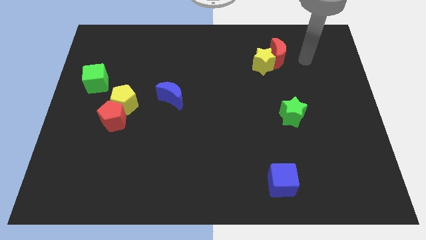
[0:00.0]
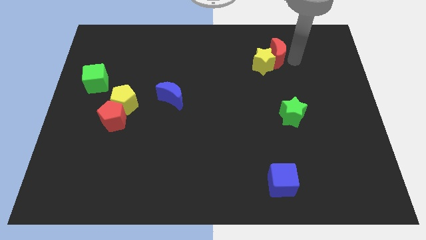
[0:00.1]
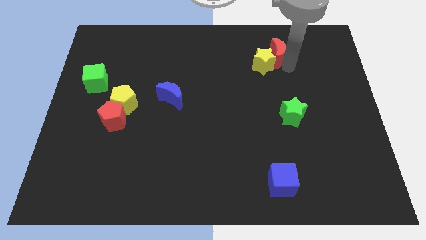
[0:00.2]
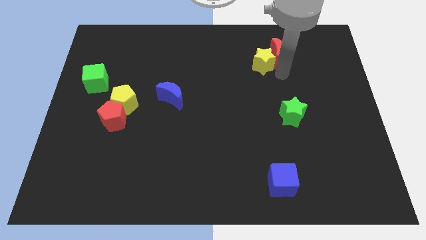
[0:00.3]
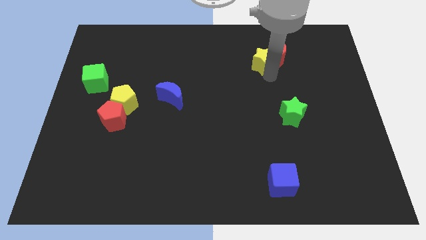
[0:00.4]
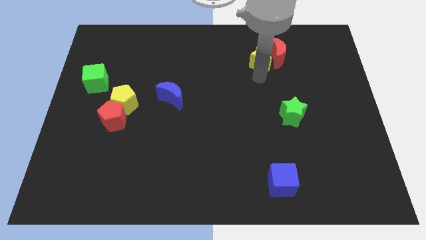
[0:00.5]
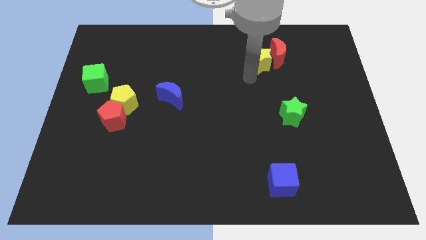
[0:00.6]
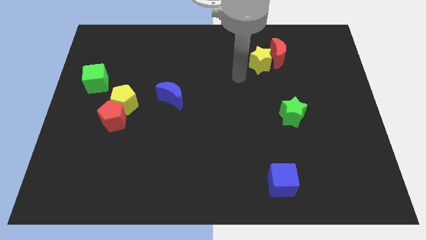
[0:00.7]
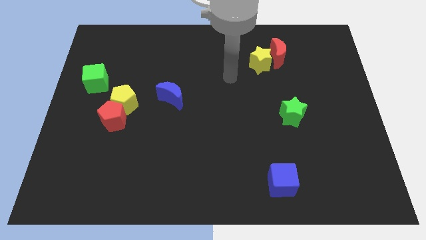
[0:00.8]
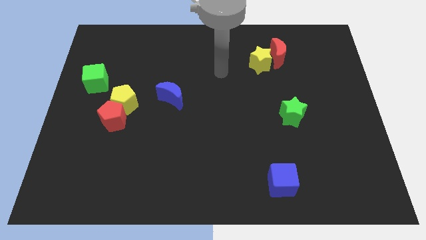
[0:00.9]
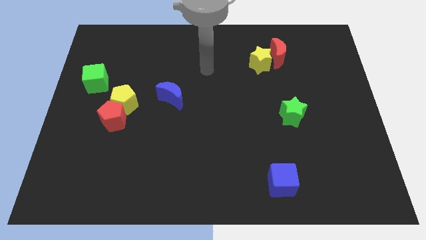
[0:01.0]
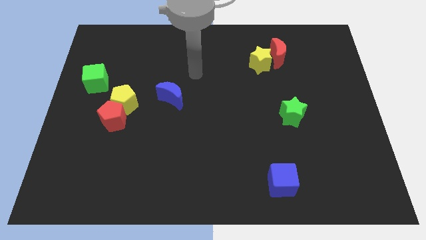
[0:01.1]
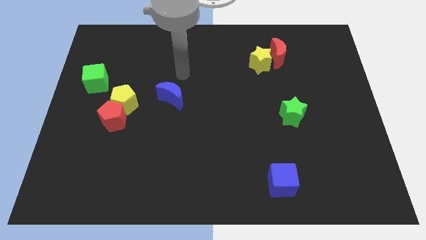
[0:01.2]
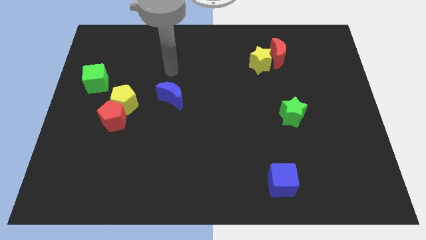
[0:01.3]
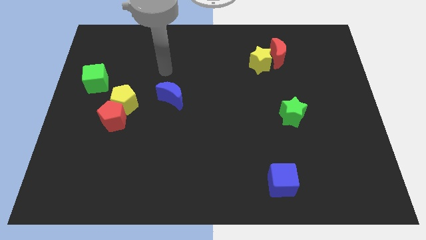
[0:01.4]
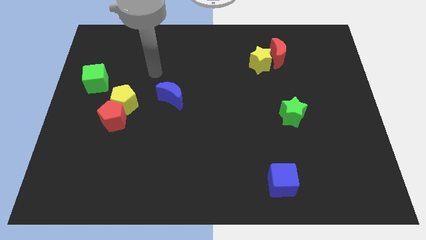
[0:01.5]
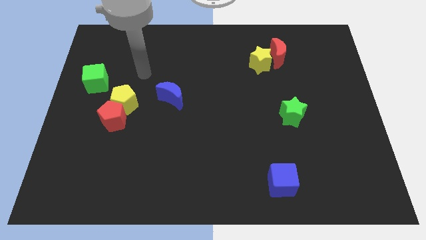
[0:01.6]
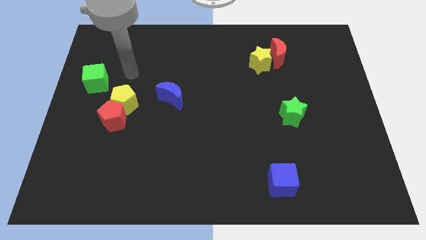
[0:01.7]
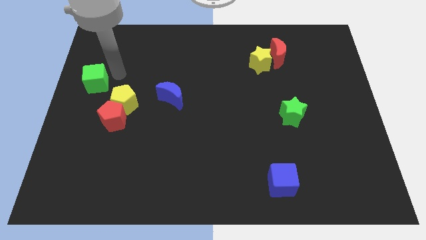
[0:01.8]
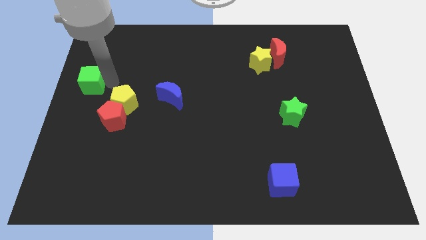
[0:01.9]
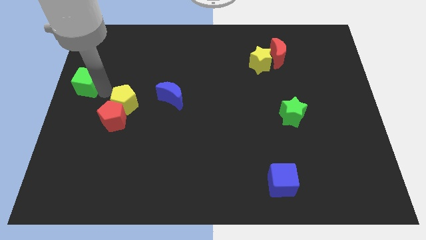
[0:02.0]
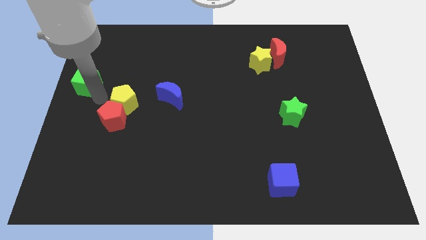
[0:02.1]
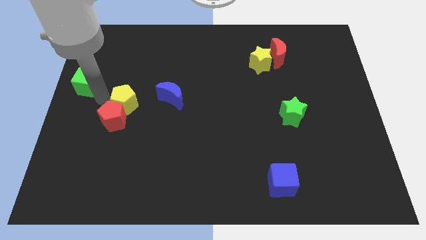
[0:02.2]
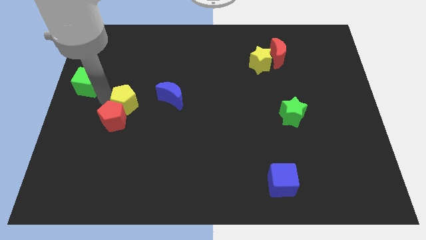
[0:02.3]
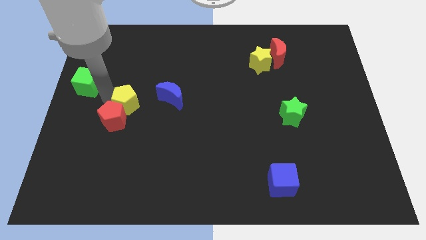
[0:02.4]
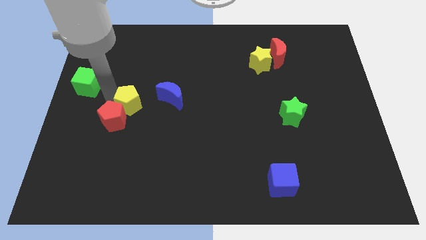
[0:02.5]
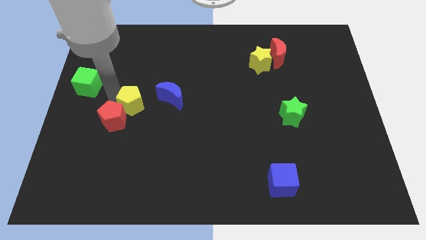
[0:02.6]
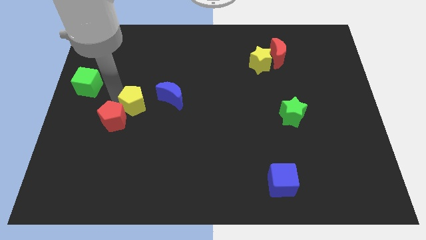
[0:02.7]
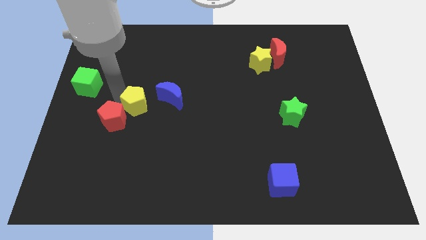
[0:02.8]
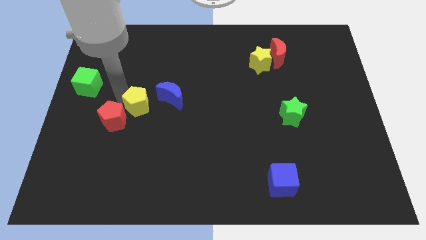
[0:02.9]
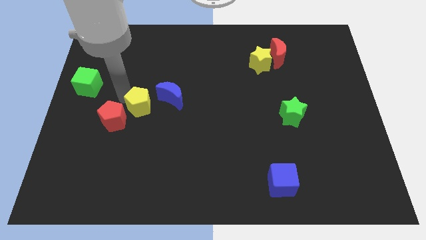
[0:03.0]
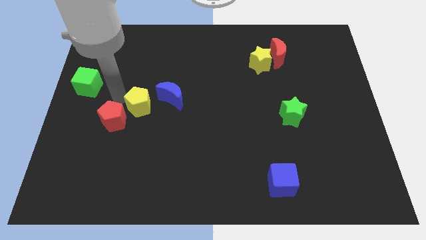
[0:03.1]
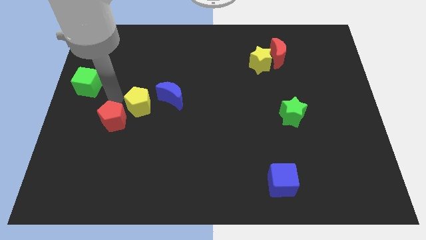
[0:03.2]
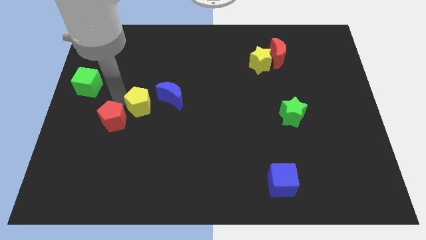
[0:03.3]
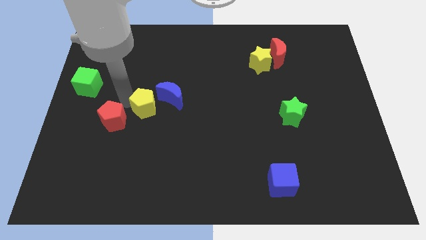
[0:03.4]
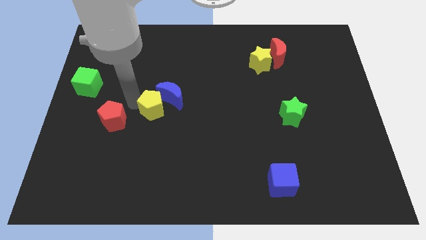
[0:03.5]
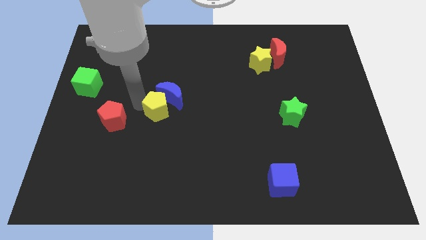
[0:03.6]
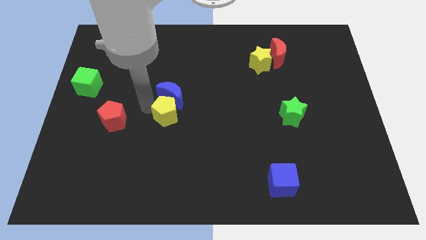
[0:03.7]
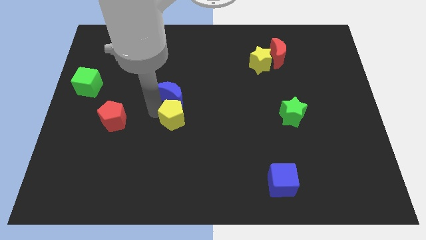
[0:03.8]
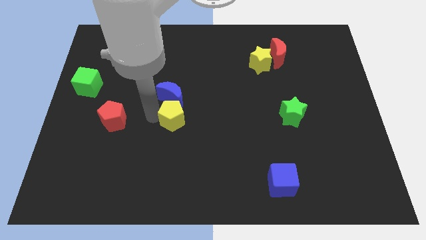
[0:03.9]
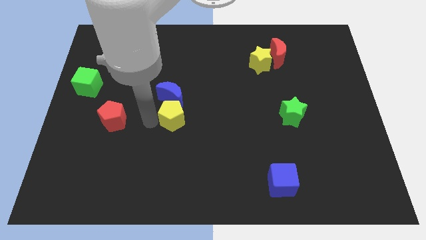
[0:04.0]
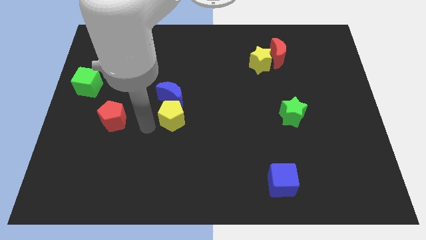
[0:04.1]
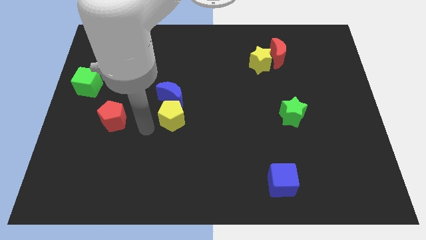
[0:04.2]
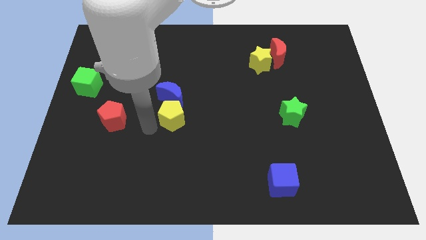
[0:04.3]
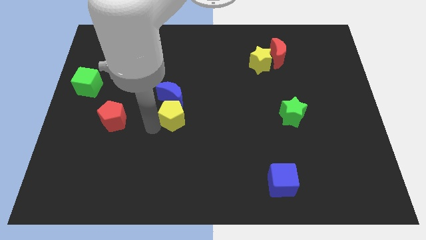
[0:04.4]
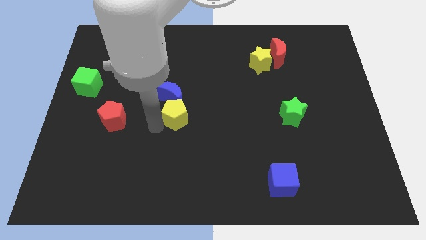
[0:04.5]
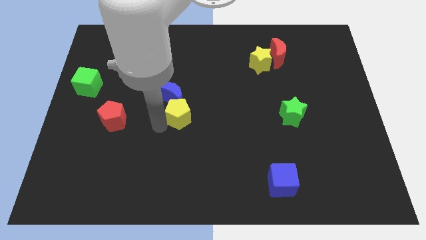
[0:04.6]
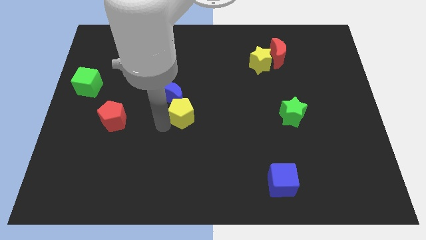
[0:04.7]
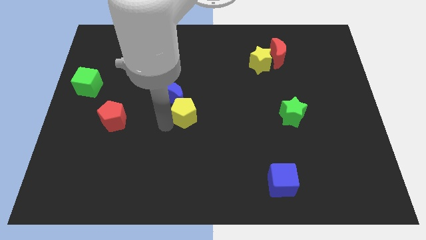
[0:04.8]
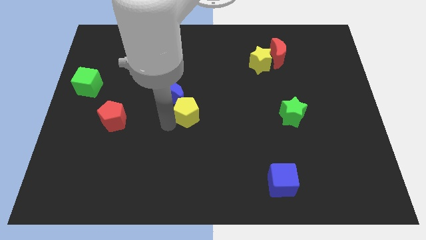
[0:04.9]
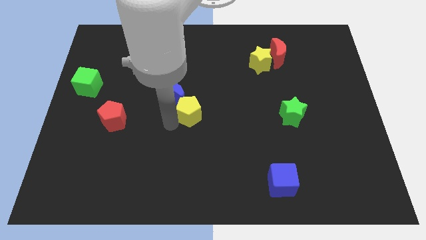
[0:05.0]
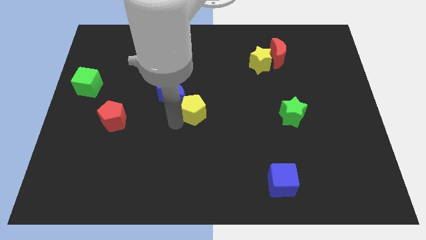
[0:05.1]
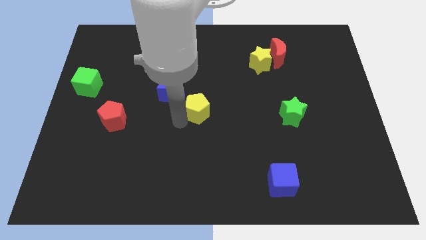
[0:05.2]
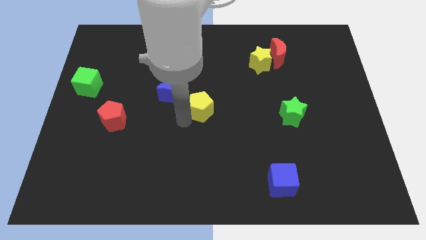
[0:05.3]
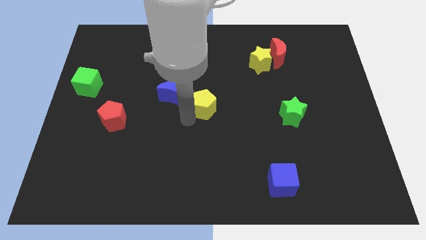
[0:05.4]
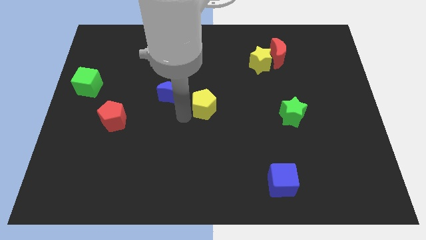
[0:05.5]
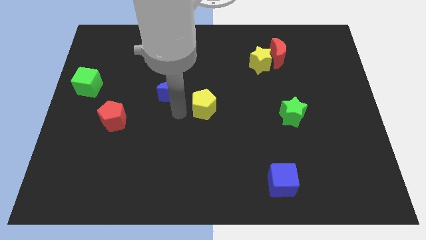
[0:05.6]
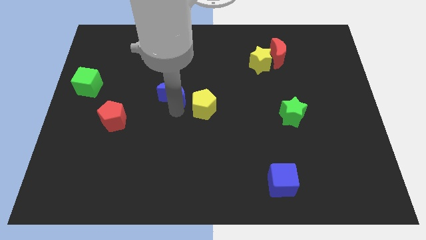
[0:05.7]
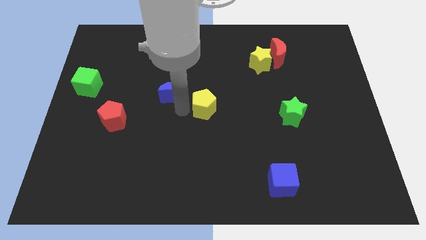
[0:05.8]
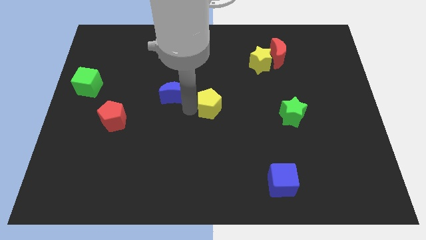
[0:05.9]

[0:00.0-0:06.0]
move the yellow pentagon to the right

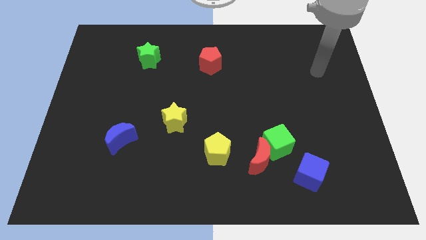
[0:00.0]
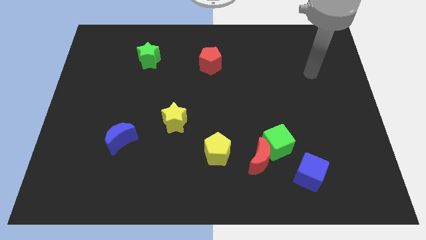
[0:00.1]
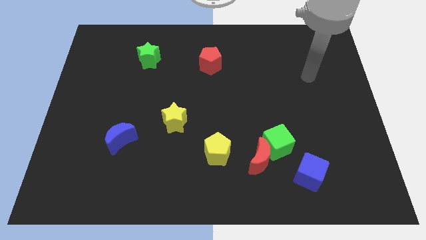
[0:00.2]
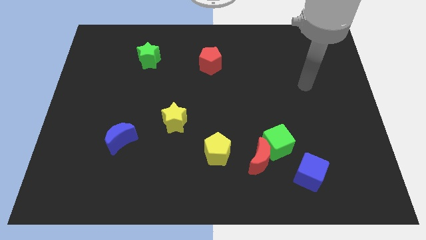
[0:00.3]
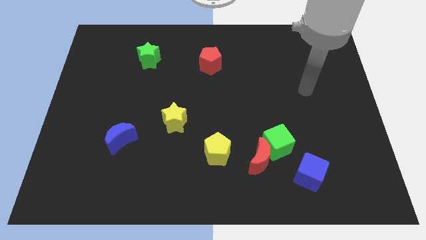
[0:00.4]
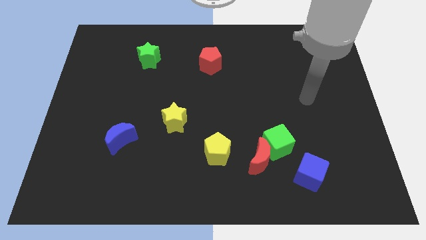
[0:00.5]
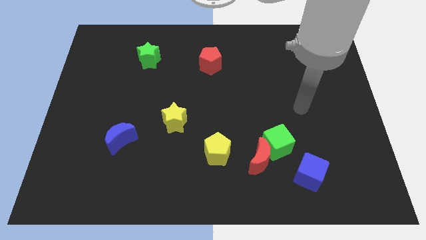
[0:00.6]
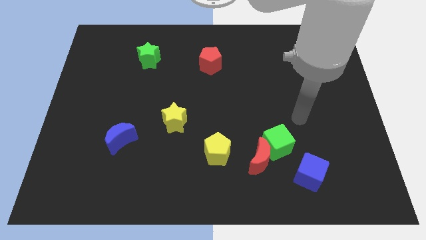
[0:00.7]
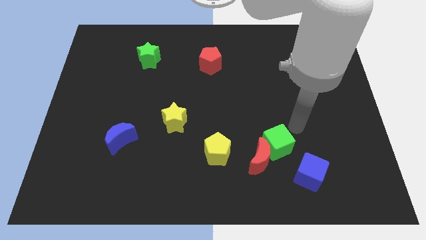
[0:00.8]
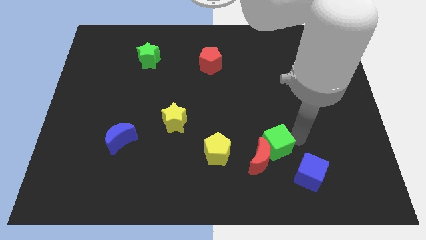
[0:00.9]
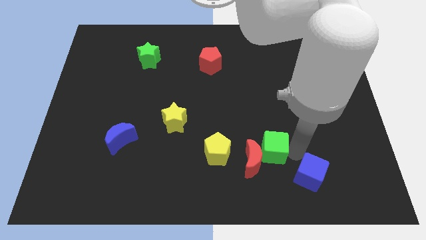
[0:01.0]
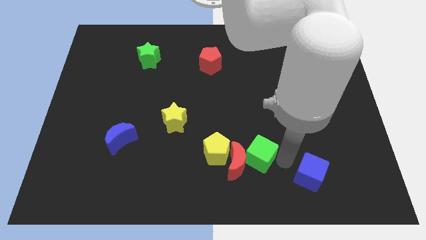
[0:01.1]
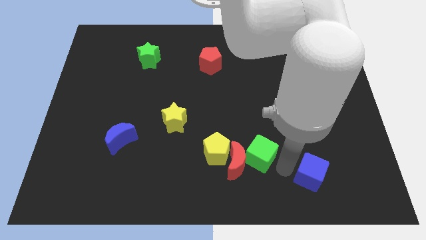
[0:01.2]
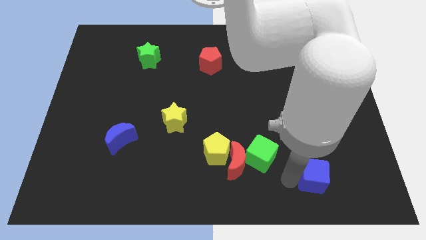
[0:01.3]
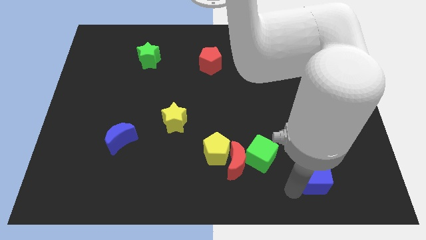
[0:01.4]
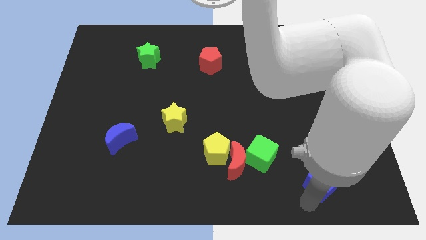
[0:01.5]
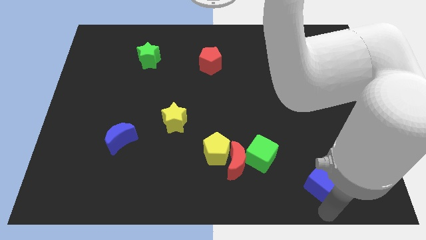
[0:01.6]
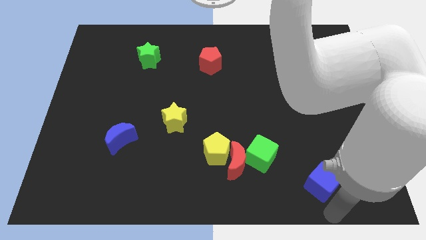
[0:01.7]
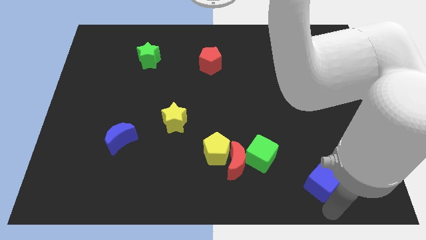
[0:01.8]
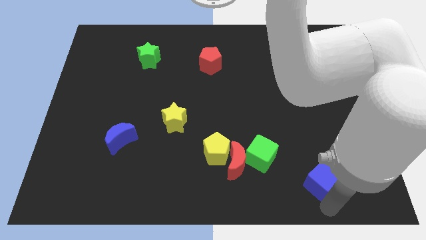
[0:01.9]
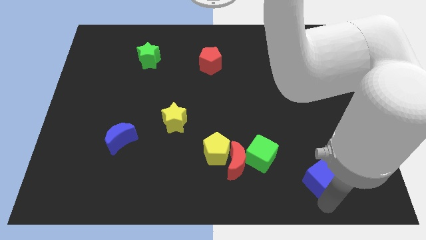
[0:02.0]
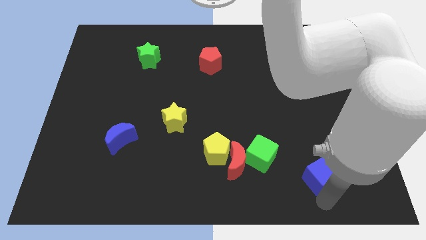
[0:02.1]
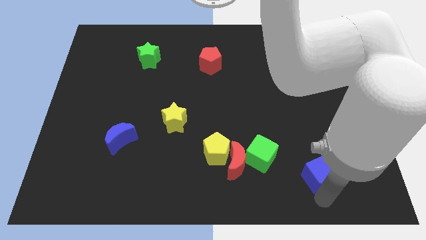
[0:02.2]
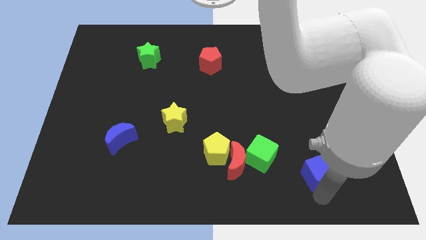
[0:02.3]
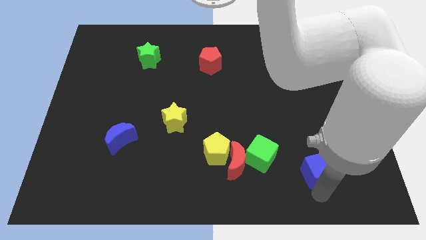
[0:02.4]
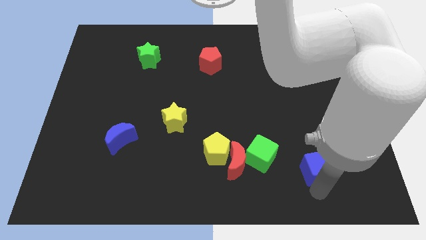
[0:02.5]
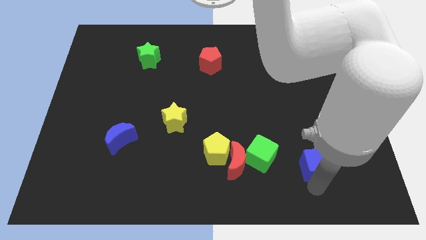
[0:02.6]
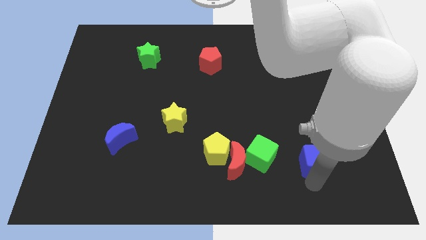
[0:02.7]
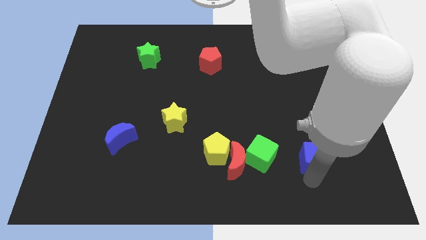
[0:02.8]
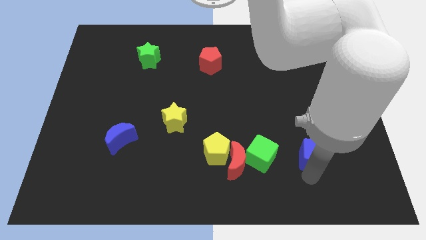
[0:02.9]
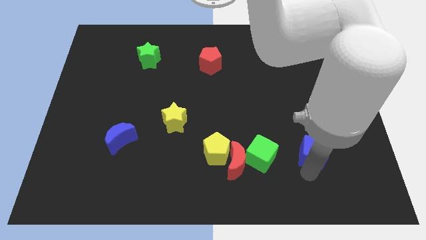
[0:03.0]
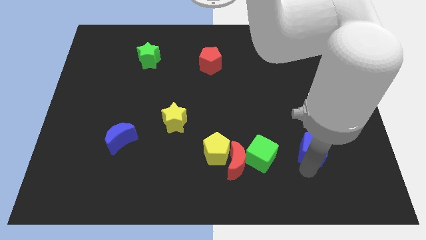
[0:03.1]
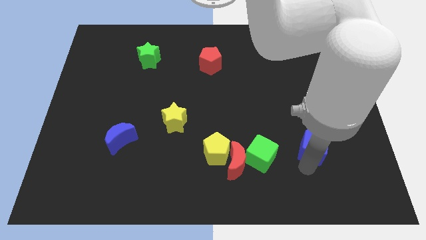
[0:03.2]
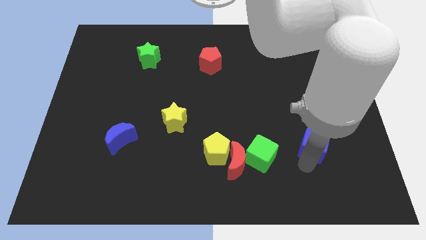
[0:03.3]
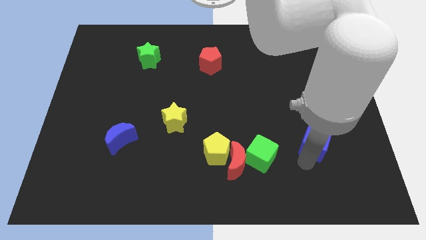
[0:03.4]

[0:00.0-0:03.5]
slightly slide the blue cube up
